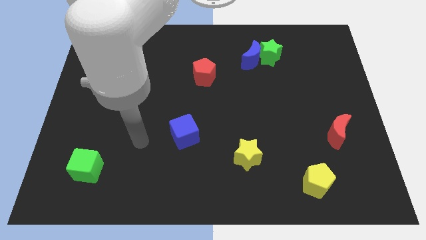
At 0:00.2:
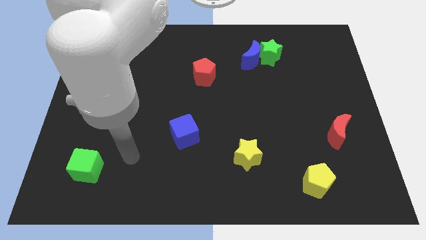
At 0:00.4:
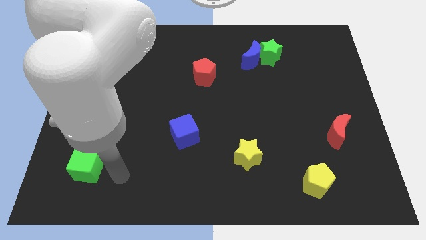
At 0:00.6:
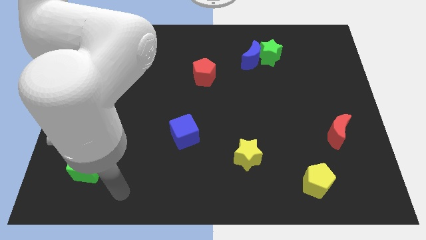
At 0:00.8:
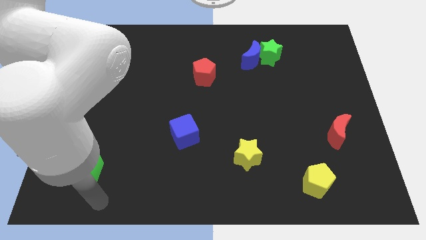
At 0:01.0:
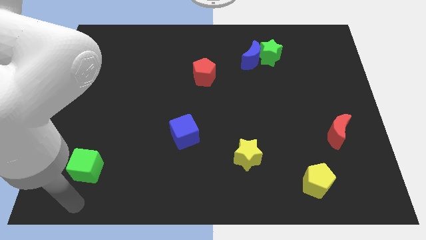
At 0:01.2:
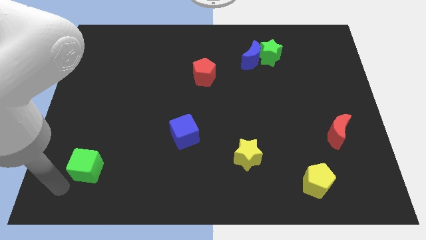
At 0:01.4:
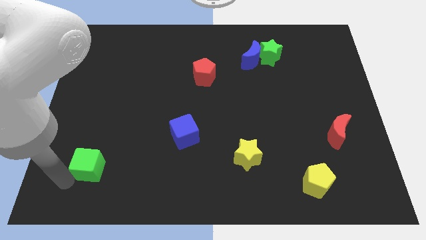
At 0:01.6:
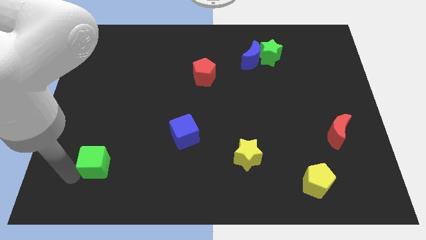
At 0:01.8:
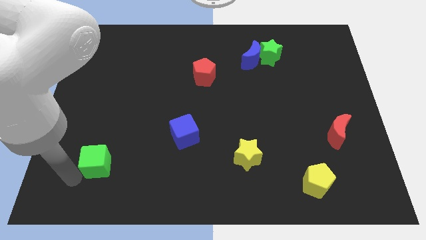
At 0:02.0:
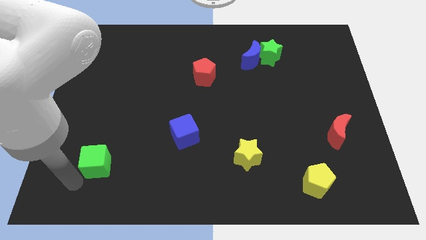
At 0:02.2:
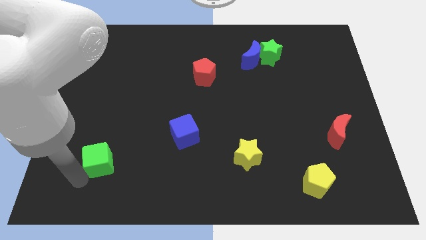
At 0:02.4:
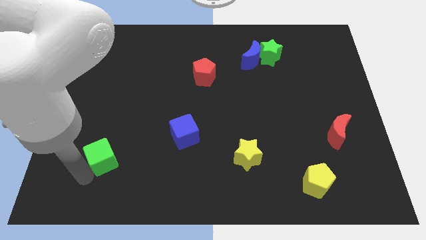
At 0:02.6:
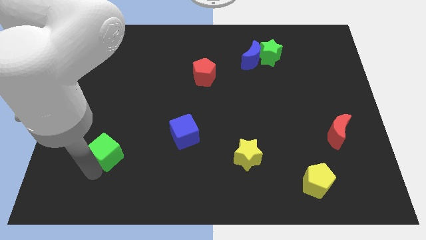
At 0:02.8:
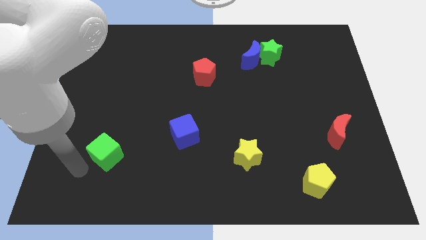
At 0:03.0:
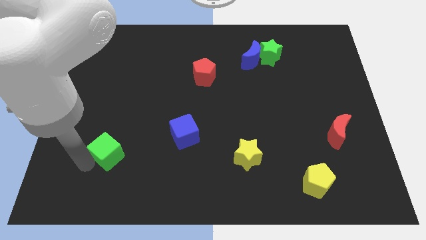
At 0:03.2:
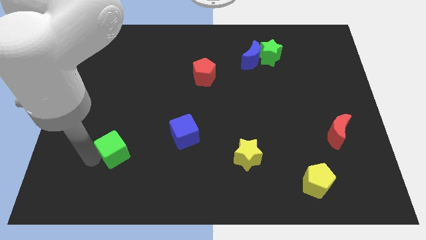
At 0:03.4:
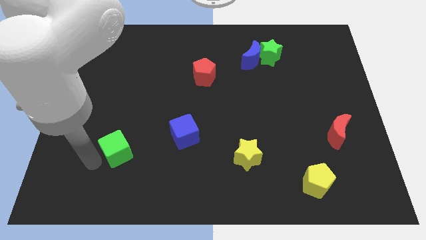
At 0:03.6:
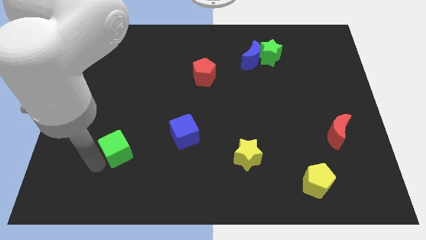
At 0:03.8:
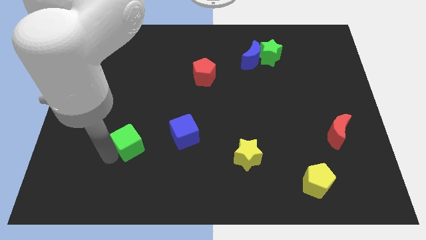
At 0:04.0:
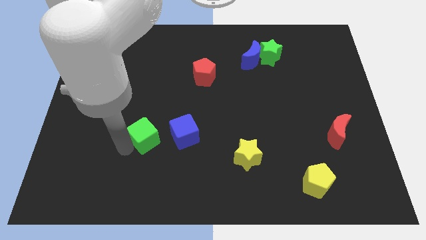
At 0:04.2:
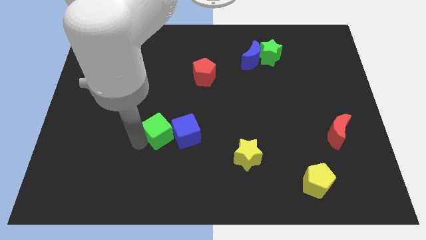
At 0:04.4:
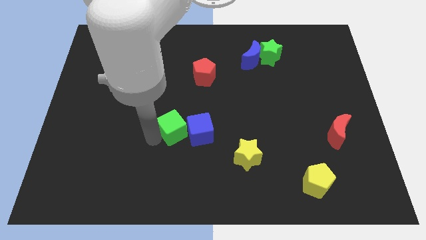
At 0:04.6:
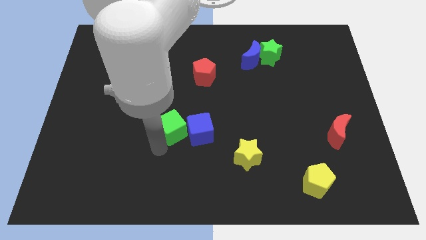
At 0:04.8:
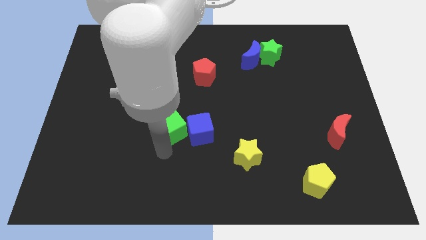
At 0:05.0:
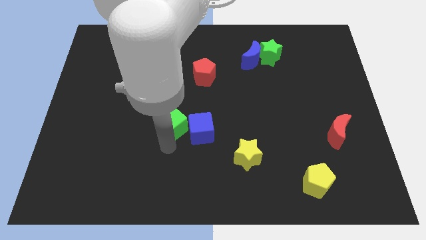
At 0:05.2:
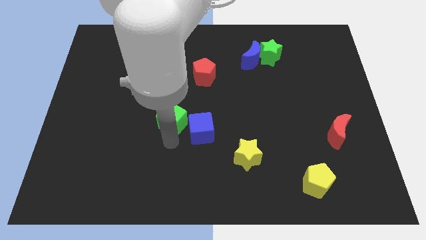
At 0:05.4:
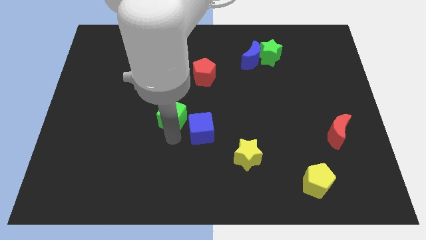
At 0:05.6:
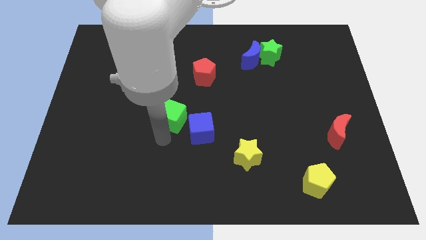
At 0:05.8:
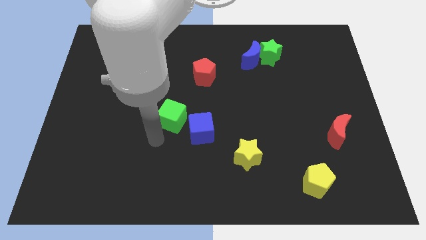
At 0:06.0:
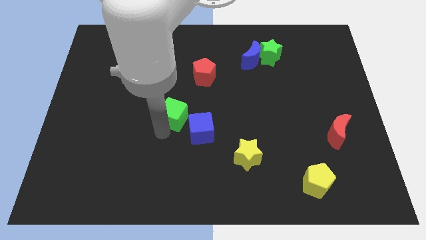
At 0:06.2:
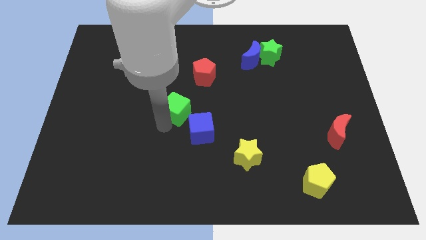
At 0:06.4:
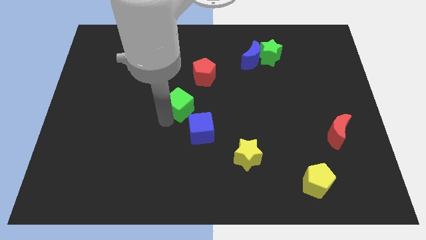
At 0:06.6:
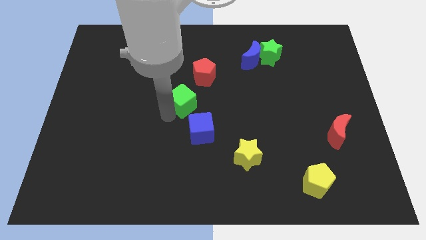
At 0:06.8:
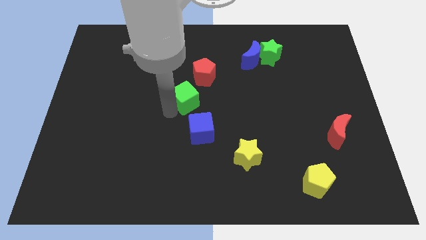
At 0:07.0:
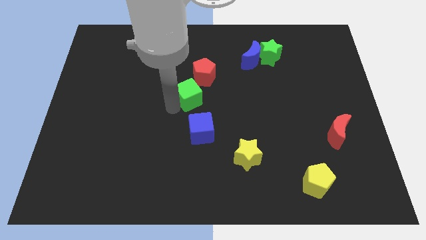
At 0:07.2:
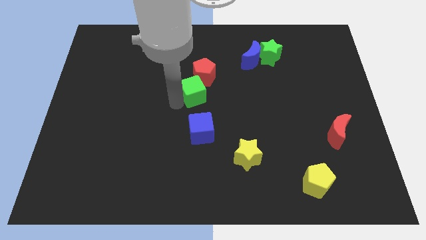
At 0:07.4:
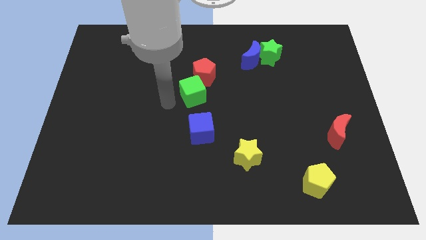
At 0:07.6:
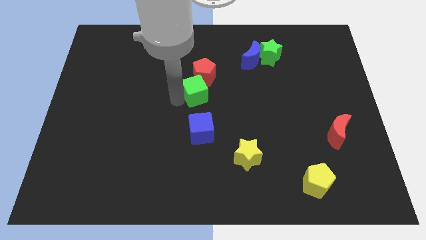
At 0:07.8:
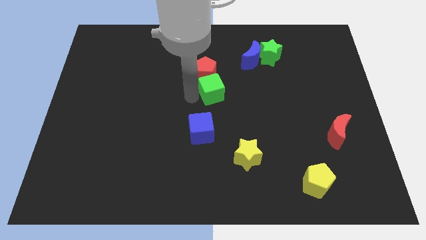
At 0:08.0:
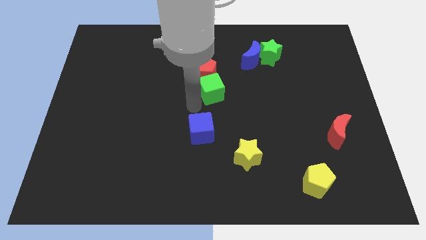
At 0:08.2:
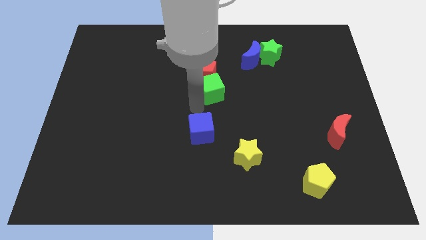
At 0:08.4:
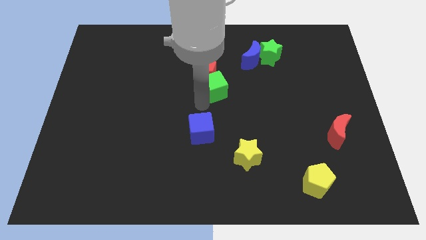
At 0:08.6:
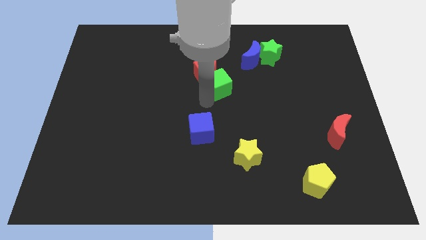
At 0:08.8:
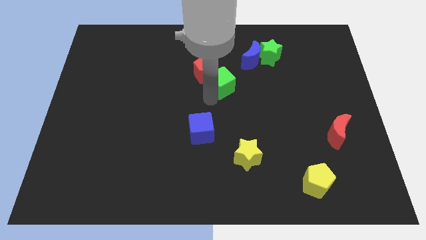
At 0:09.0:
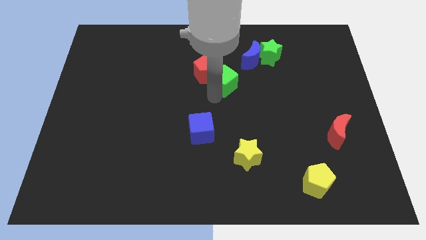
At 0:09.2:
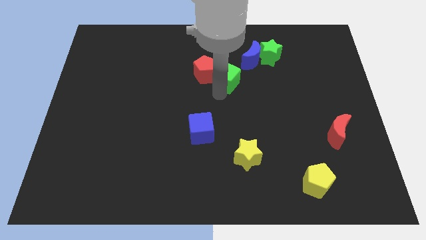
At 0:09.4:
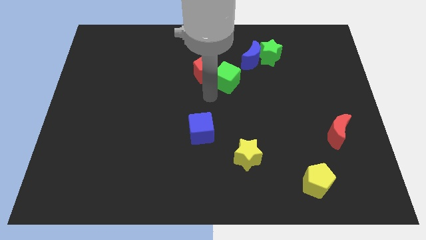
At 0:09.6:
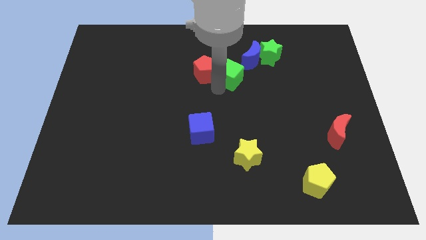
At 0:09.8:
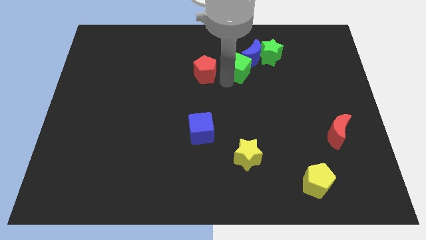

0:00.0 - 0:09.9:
put the green cube towards the blue moon

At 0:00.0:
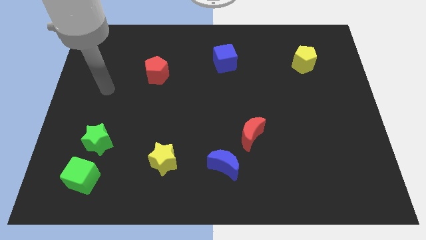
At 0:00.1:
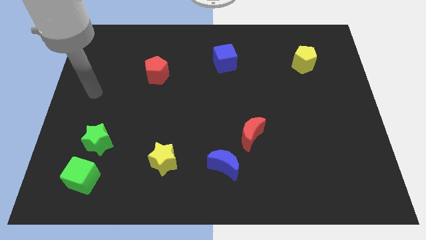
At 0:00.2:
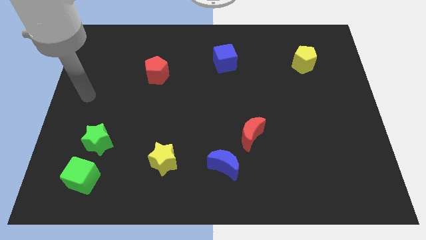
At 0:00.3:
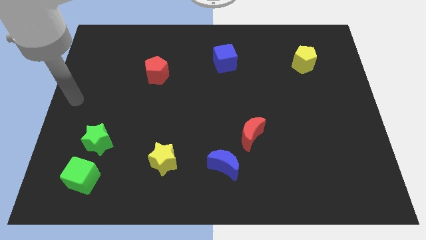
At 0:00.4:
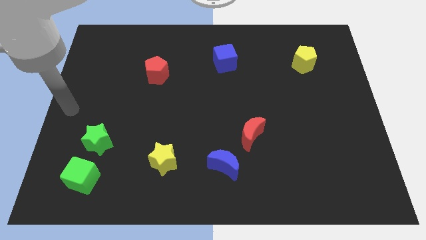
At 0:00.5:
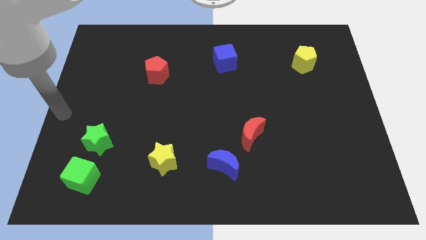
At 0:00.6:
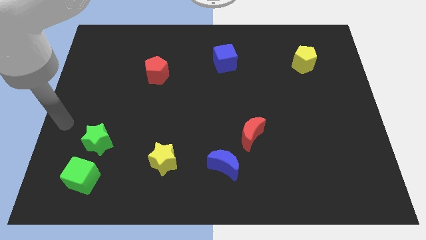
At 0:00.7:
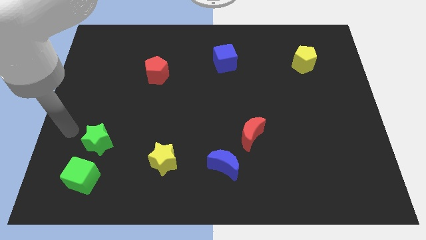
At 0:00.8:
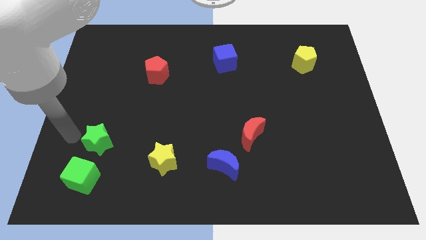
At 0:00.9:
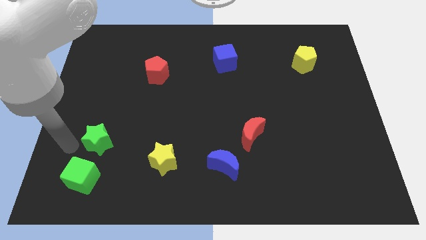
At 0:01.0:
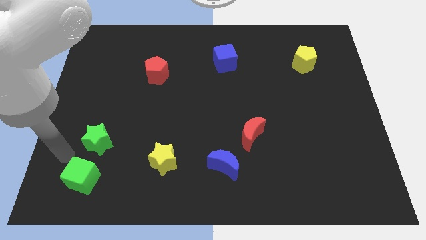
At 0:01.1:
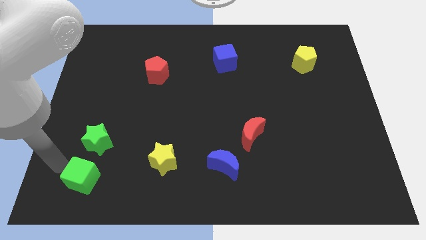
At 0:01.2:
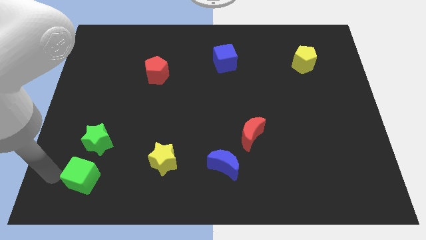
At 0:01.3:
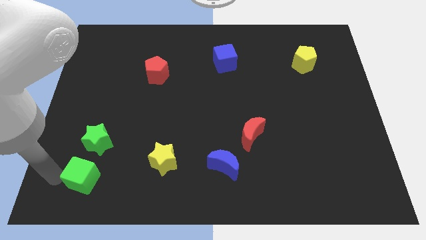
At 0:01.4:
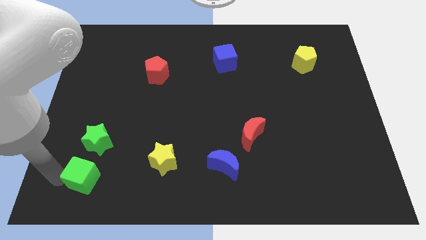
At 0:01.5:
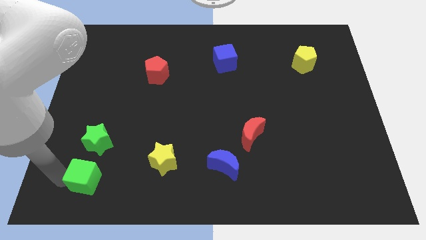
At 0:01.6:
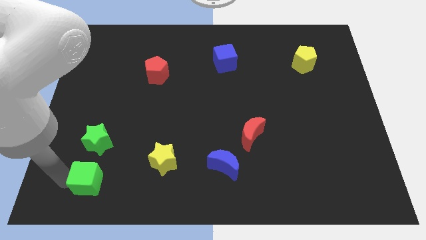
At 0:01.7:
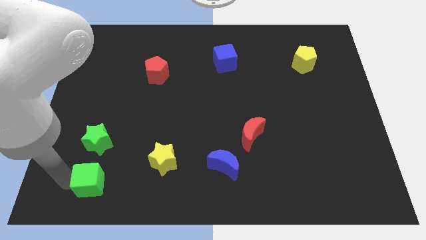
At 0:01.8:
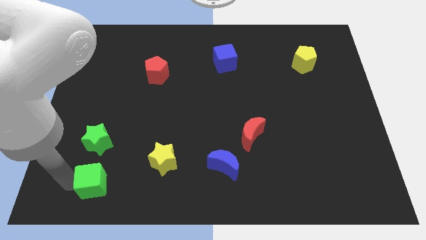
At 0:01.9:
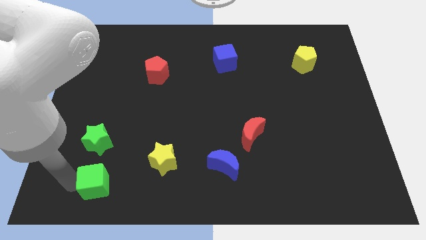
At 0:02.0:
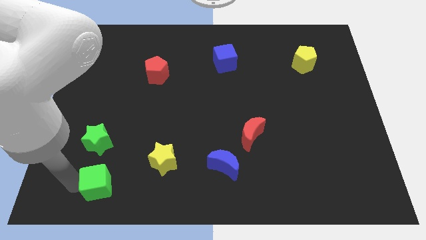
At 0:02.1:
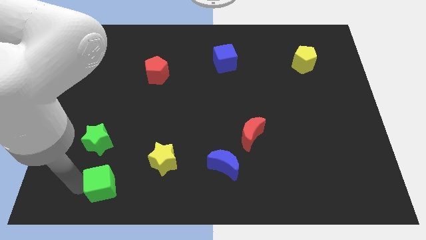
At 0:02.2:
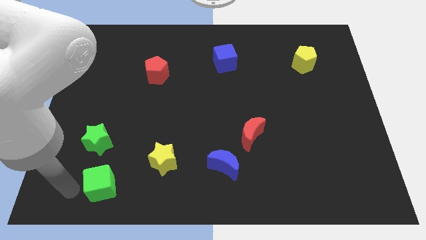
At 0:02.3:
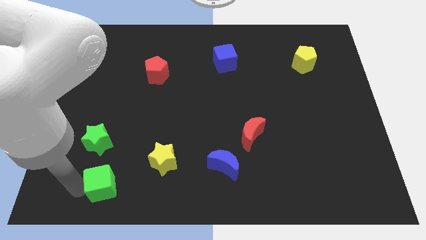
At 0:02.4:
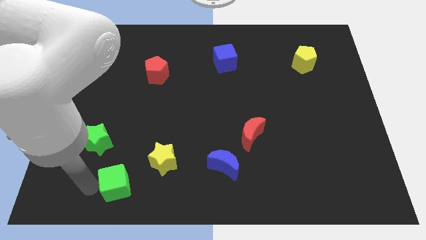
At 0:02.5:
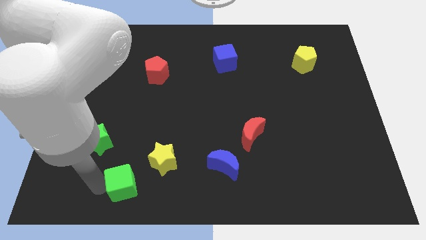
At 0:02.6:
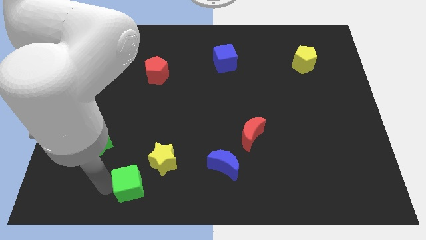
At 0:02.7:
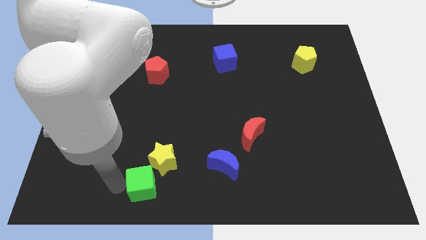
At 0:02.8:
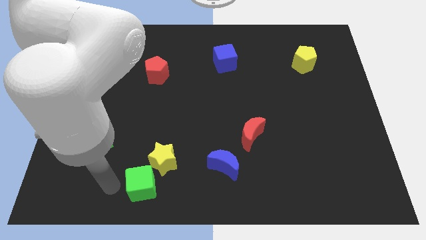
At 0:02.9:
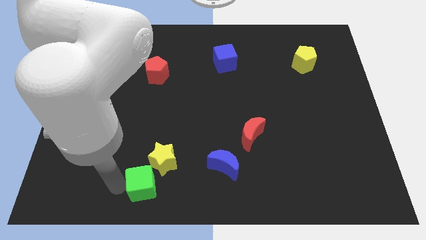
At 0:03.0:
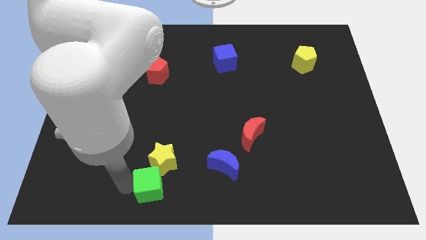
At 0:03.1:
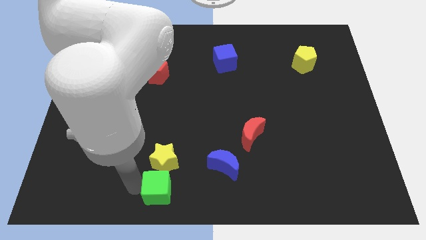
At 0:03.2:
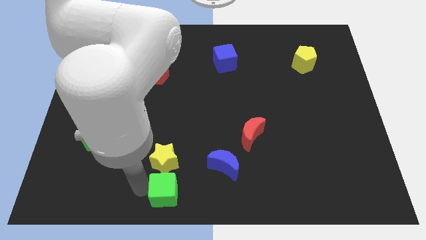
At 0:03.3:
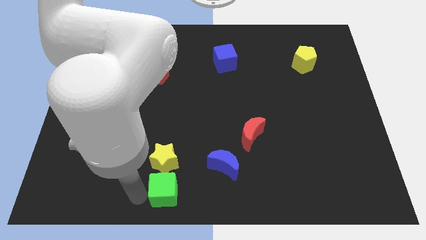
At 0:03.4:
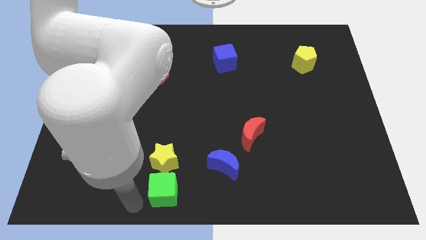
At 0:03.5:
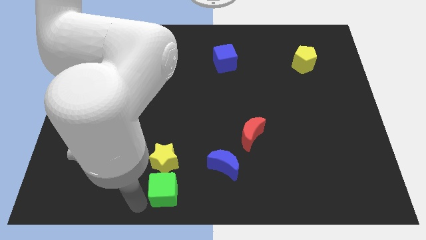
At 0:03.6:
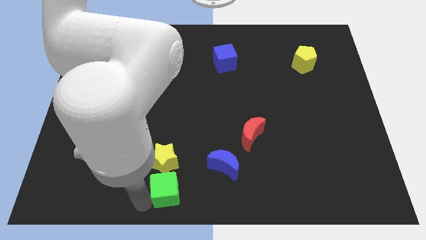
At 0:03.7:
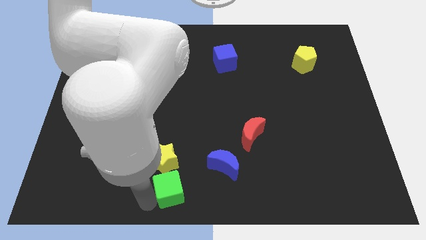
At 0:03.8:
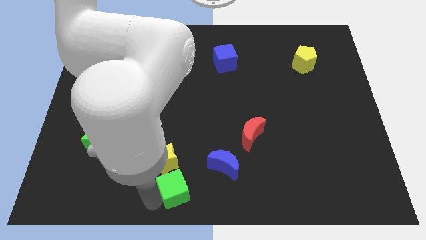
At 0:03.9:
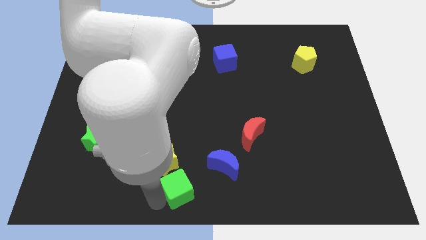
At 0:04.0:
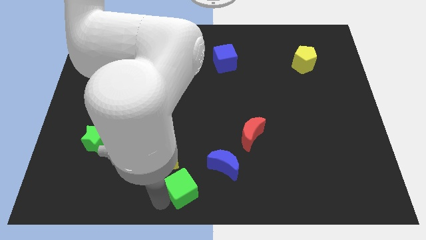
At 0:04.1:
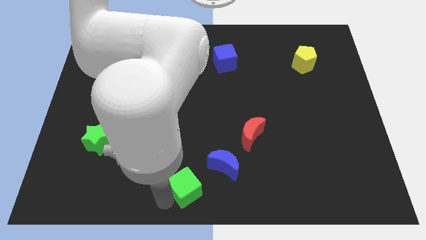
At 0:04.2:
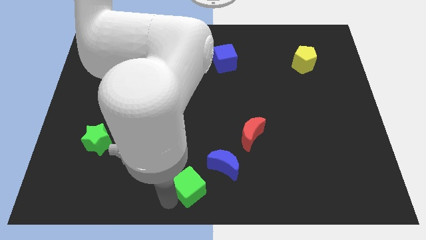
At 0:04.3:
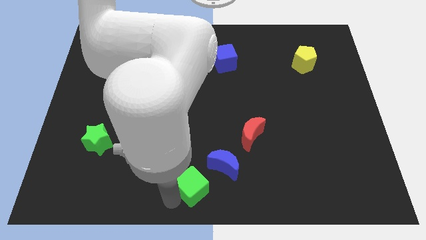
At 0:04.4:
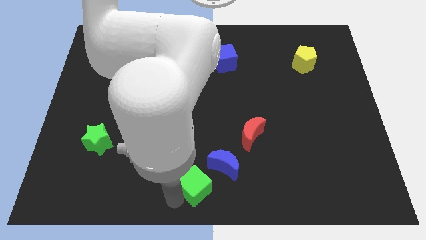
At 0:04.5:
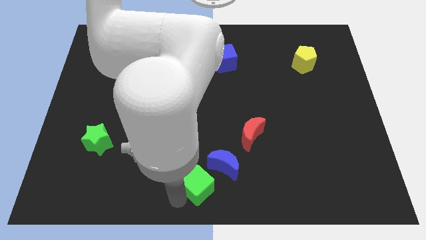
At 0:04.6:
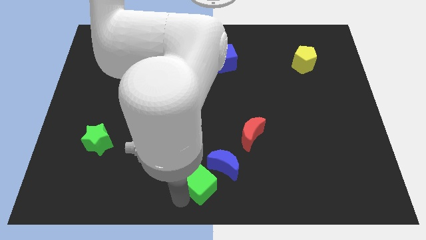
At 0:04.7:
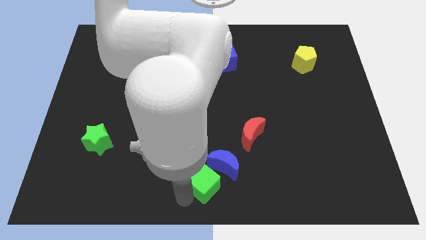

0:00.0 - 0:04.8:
move the green cube next to the blue moon
